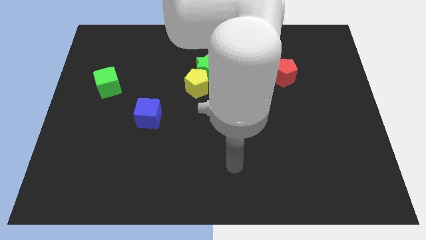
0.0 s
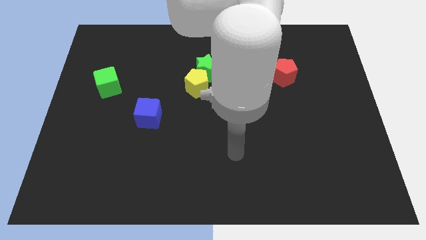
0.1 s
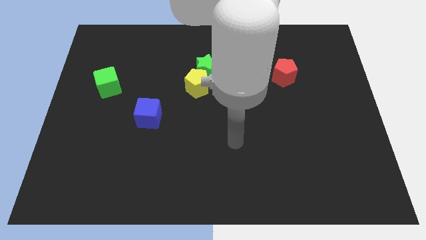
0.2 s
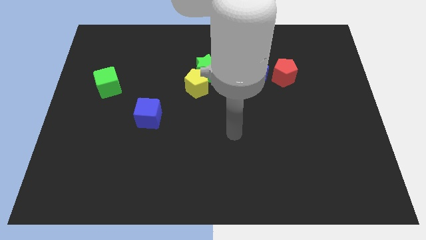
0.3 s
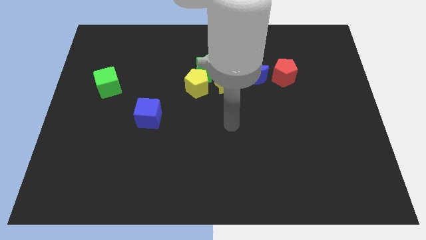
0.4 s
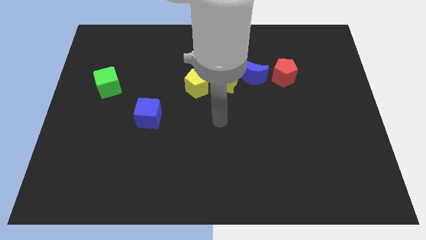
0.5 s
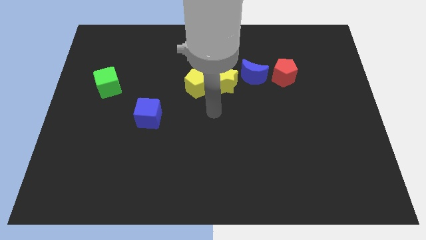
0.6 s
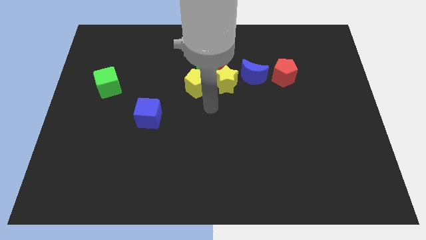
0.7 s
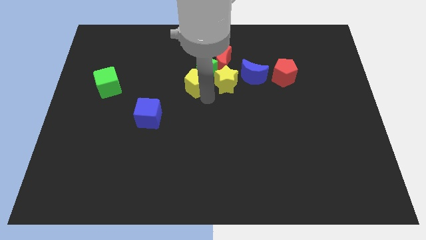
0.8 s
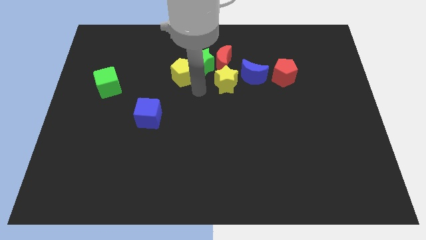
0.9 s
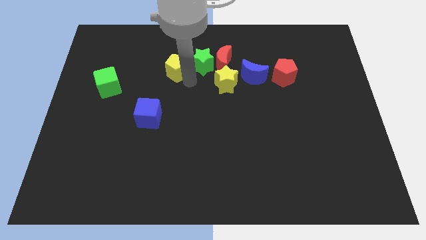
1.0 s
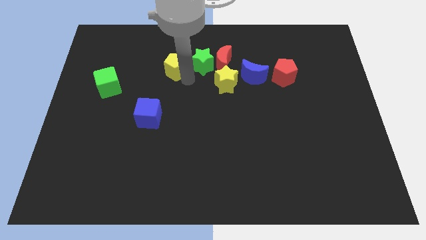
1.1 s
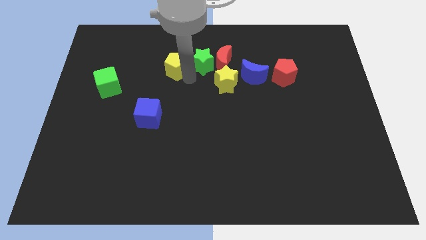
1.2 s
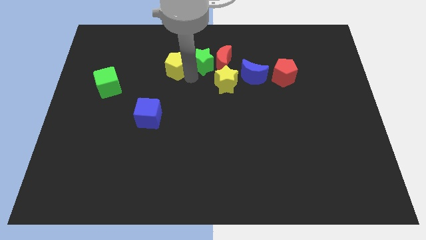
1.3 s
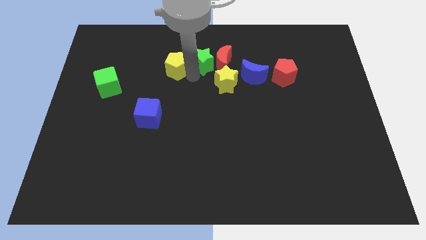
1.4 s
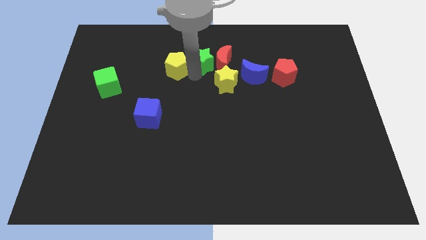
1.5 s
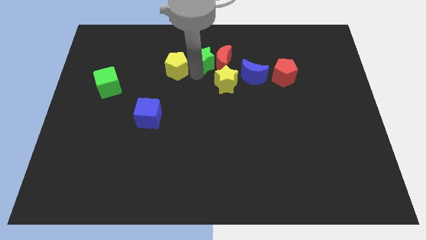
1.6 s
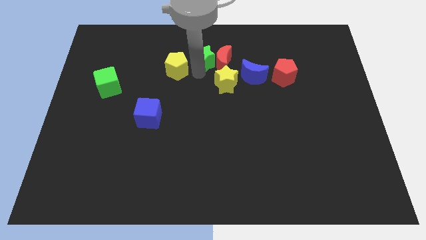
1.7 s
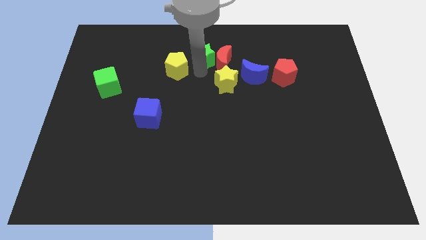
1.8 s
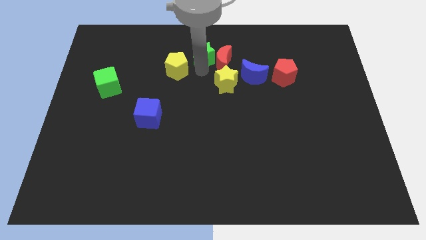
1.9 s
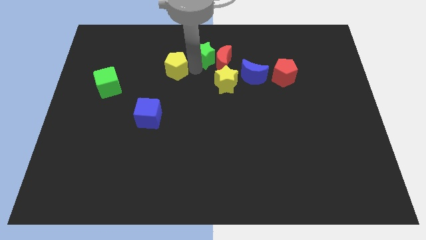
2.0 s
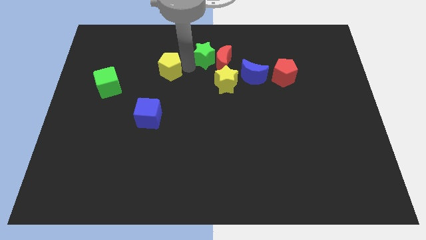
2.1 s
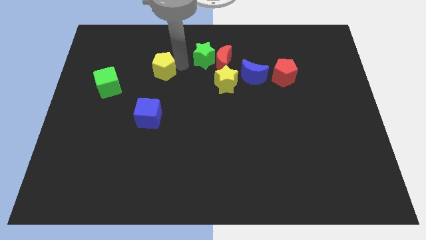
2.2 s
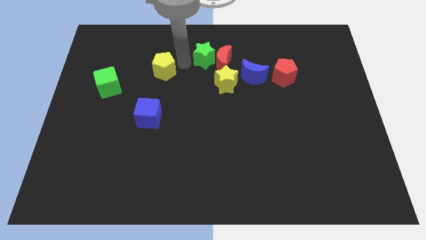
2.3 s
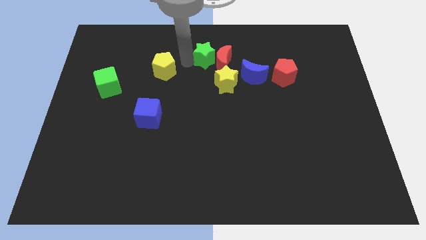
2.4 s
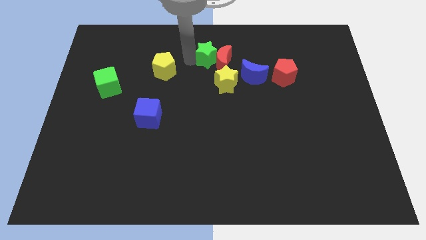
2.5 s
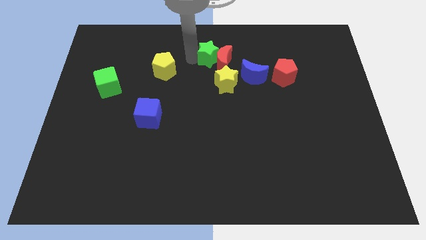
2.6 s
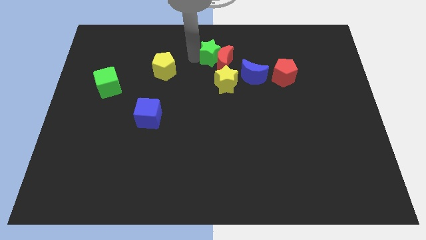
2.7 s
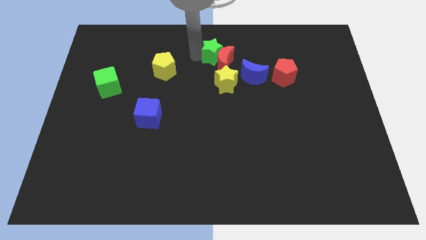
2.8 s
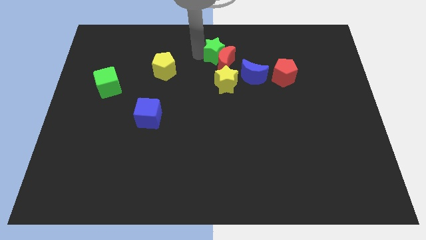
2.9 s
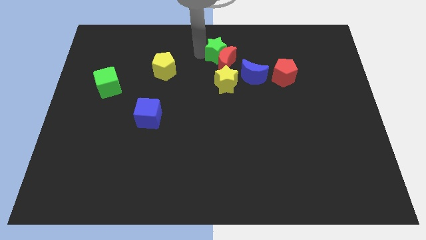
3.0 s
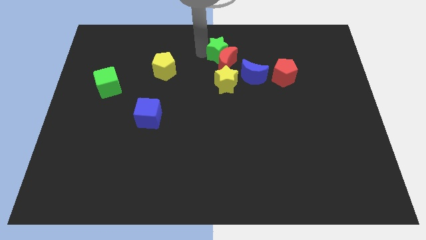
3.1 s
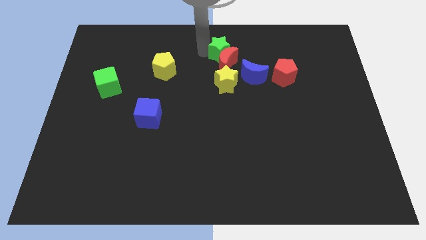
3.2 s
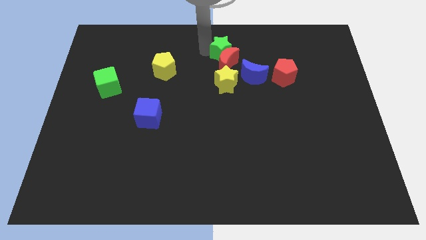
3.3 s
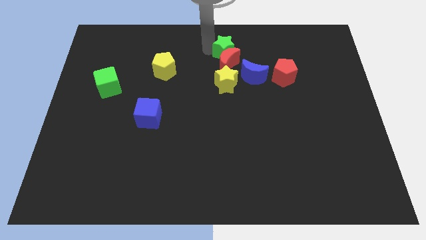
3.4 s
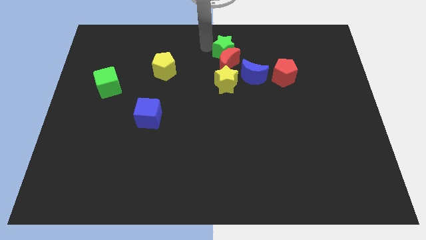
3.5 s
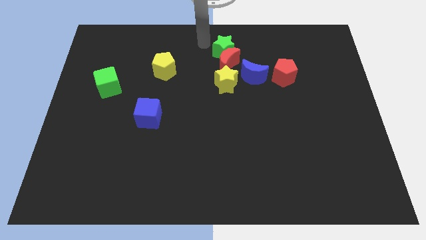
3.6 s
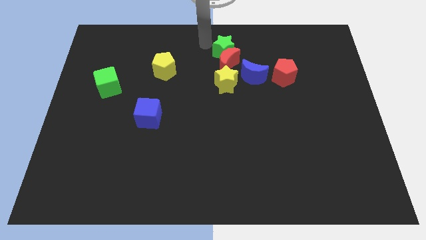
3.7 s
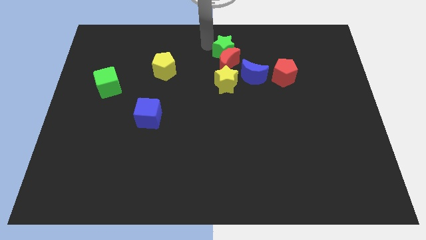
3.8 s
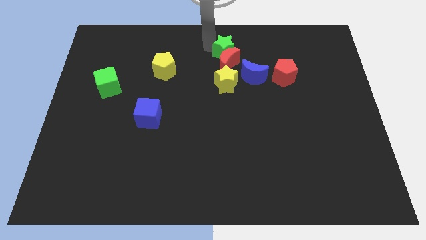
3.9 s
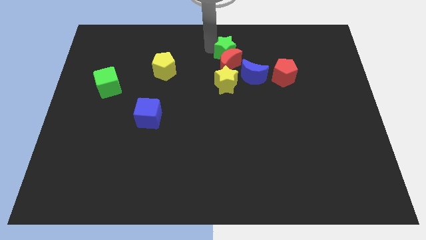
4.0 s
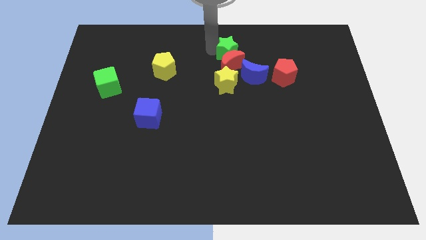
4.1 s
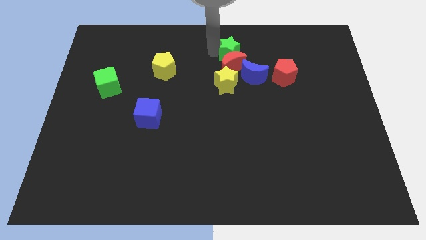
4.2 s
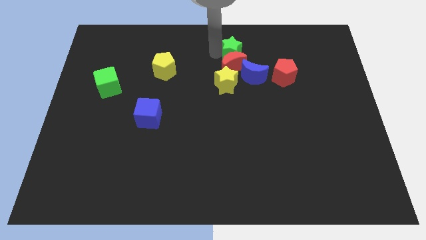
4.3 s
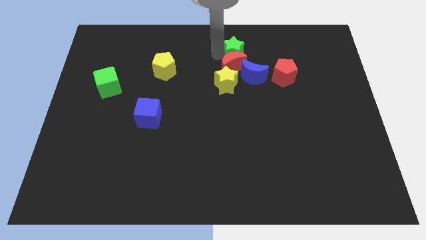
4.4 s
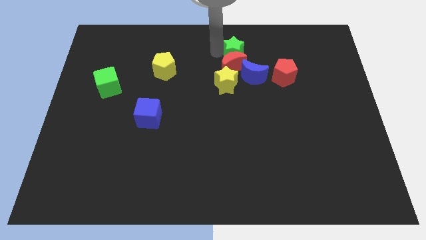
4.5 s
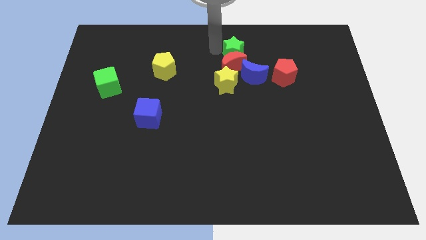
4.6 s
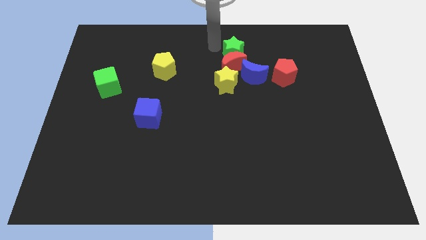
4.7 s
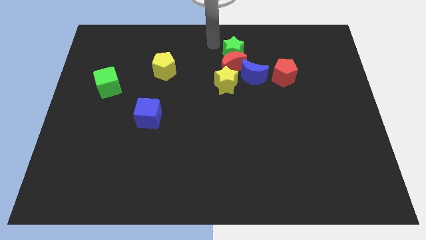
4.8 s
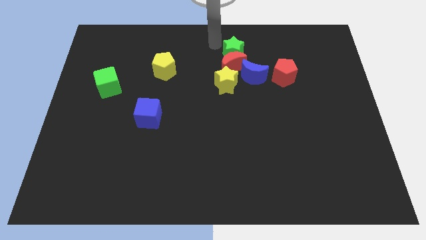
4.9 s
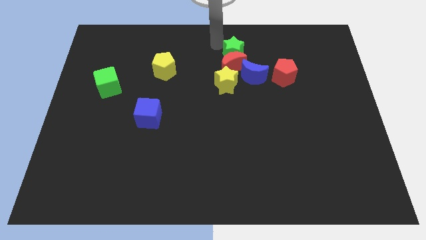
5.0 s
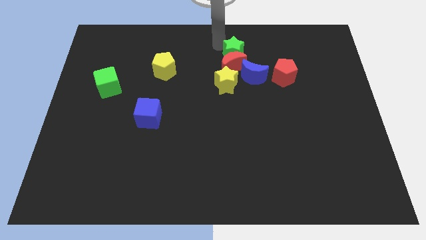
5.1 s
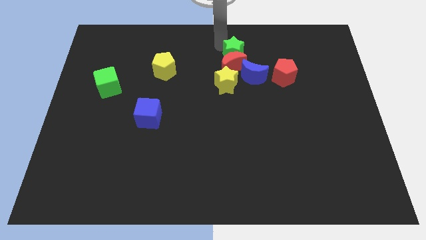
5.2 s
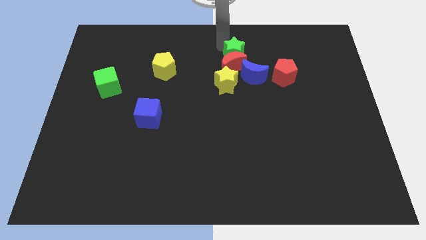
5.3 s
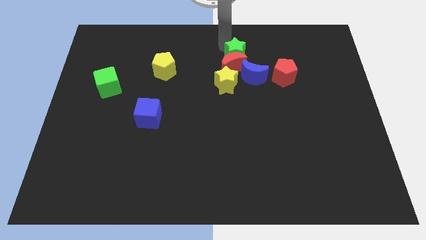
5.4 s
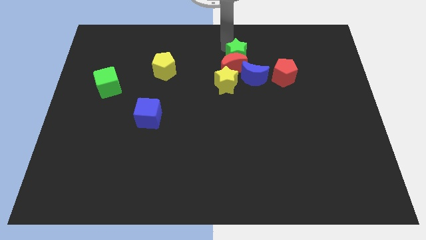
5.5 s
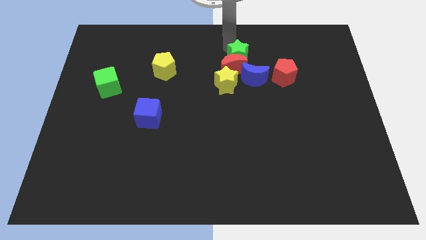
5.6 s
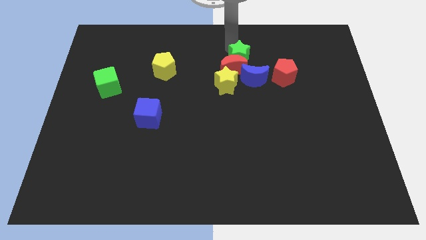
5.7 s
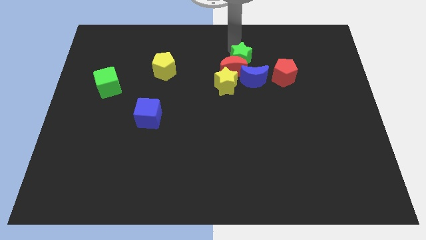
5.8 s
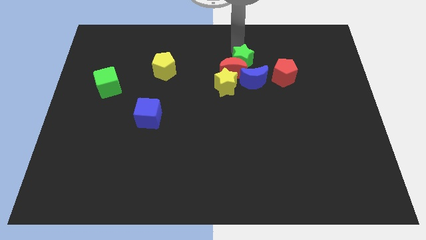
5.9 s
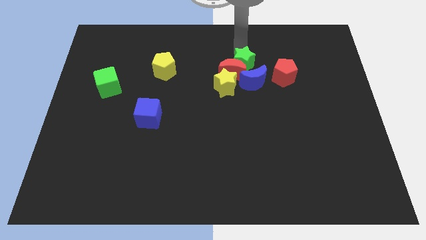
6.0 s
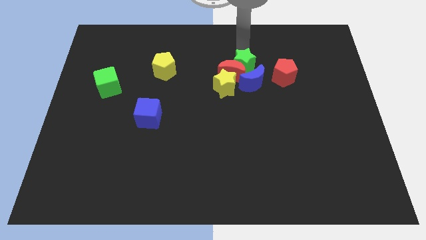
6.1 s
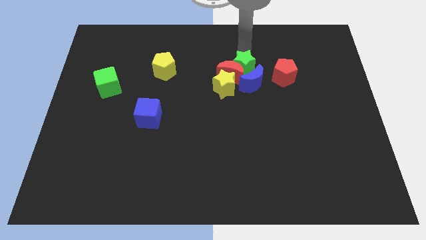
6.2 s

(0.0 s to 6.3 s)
move the green star towards the blue moon

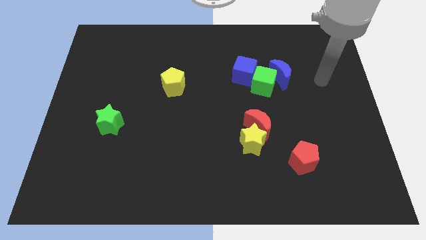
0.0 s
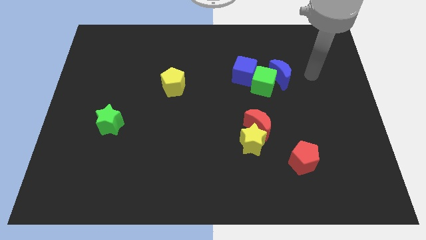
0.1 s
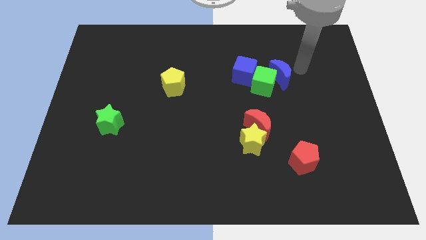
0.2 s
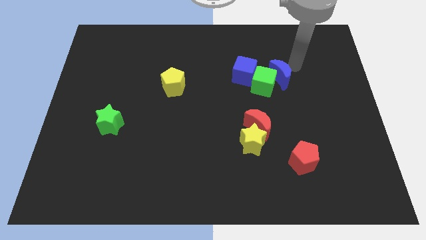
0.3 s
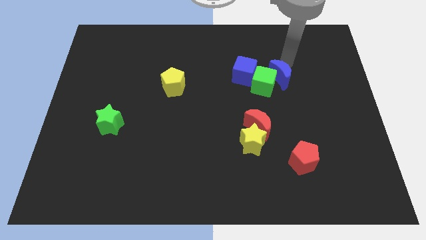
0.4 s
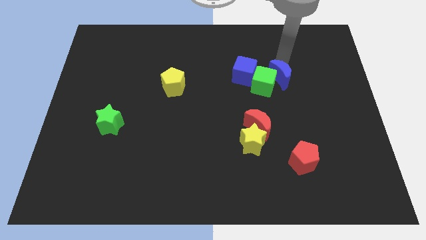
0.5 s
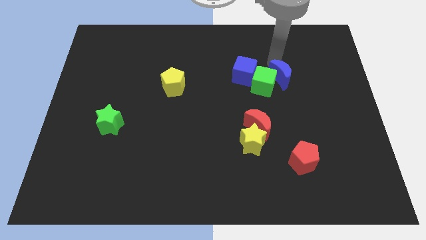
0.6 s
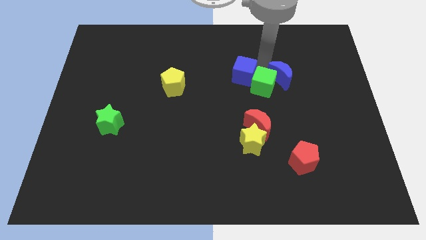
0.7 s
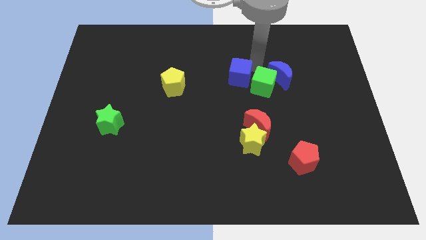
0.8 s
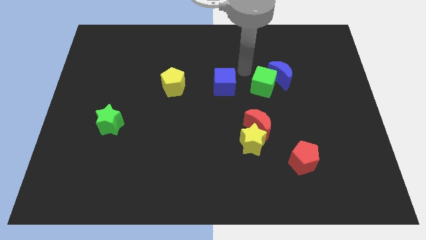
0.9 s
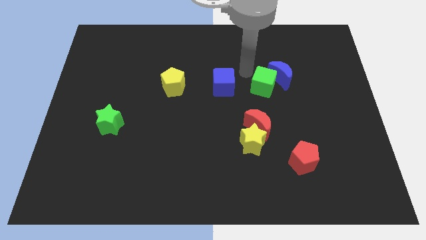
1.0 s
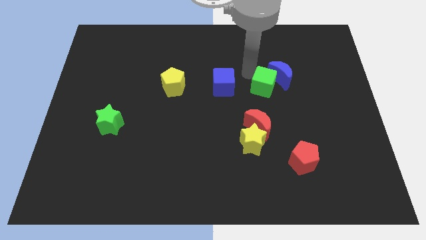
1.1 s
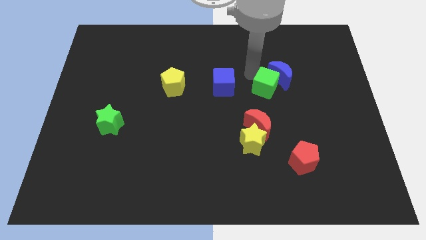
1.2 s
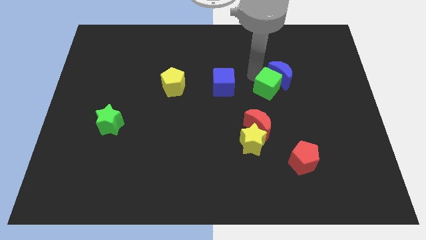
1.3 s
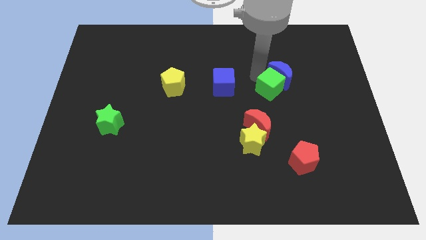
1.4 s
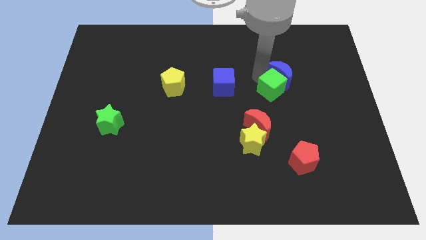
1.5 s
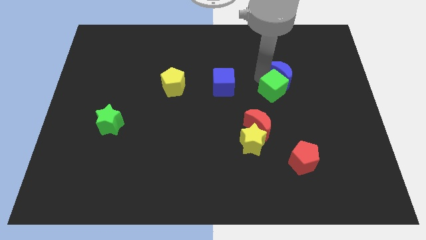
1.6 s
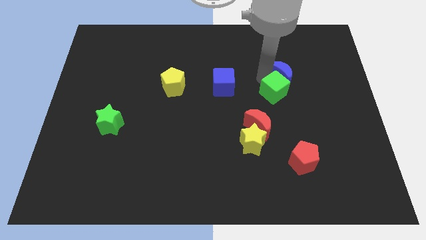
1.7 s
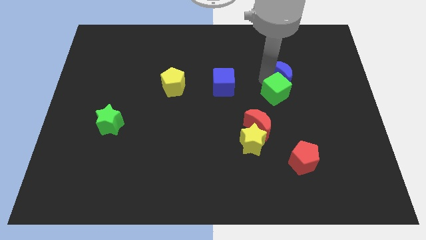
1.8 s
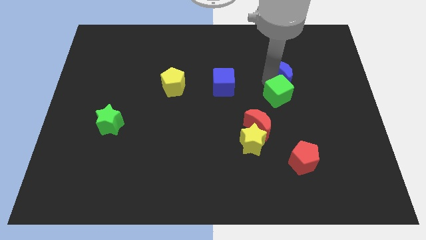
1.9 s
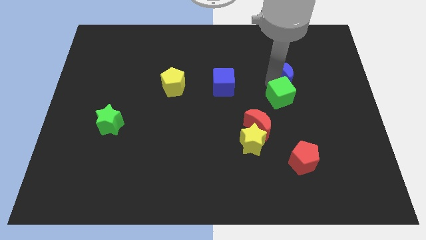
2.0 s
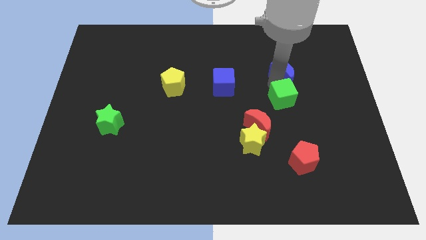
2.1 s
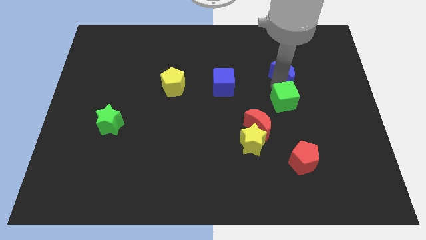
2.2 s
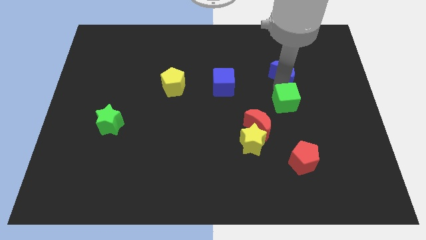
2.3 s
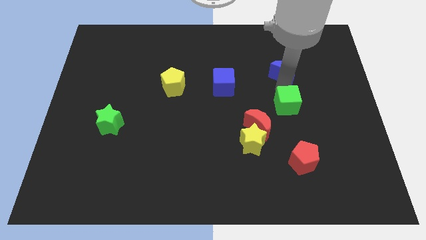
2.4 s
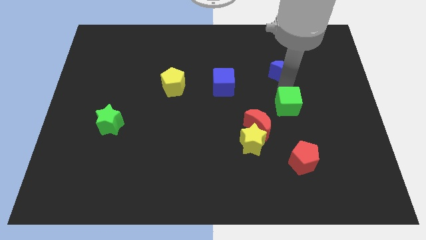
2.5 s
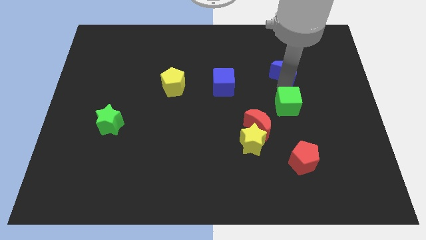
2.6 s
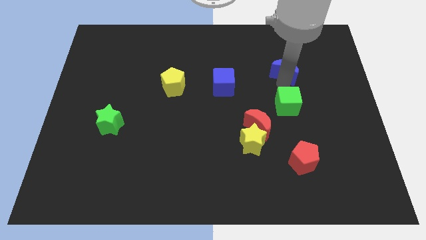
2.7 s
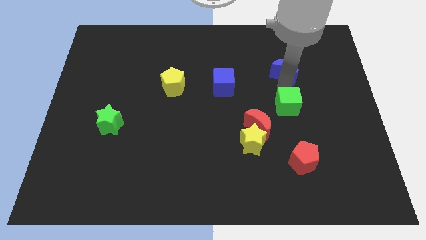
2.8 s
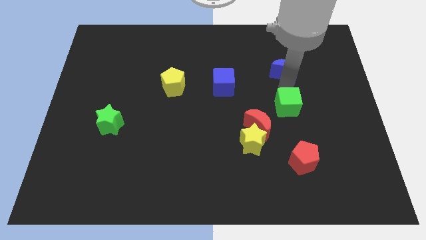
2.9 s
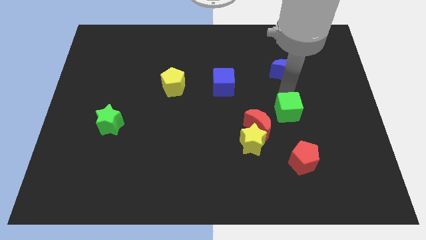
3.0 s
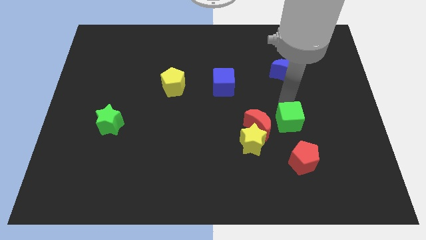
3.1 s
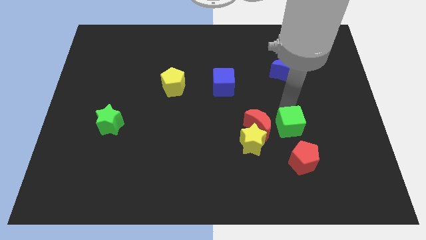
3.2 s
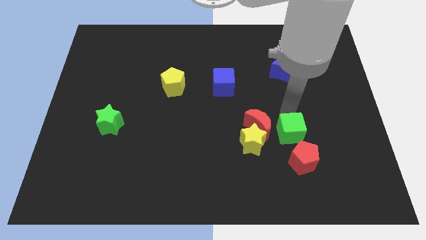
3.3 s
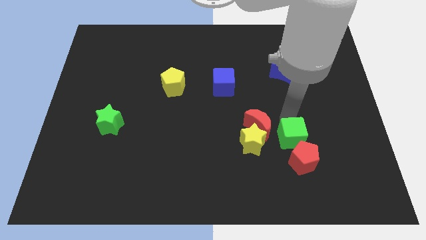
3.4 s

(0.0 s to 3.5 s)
move the green cube to the red pentagon
